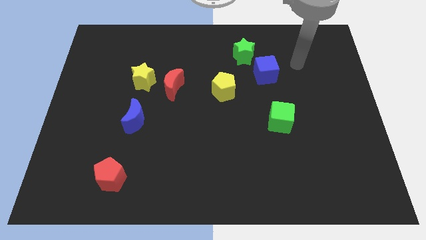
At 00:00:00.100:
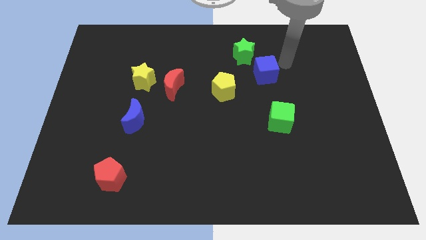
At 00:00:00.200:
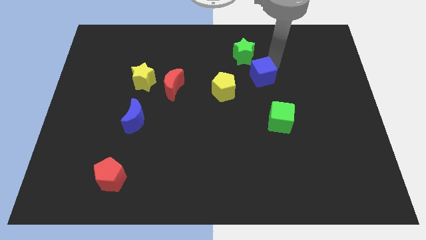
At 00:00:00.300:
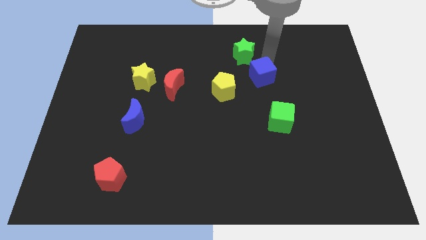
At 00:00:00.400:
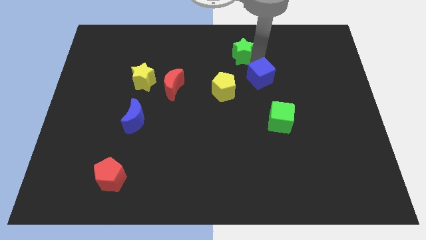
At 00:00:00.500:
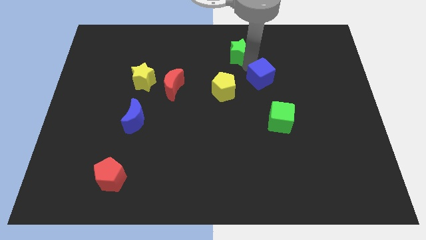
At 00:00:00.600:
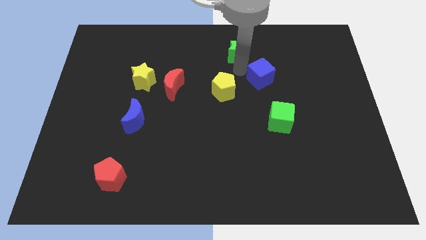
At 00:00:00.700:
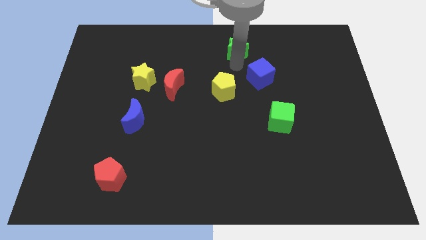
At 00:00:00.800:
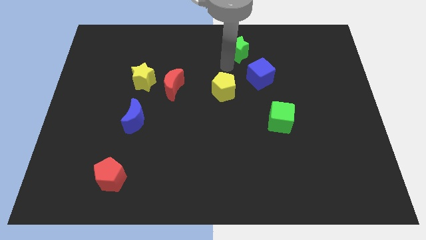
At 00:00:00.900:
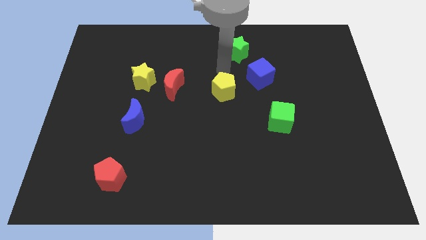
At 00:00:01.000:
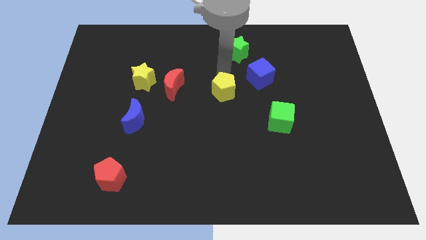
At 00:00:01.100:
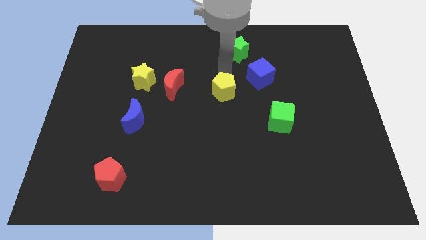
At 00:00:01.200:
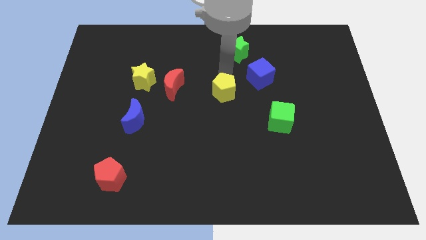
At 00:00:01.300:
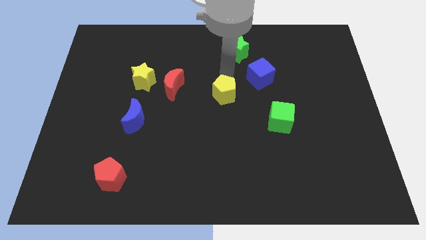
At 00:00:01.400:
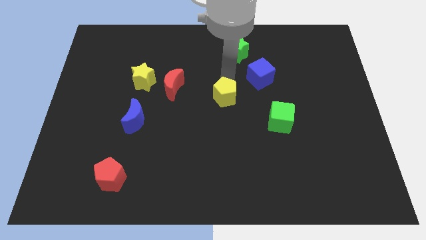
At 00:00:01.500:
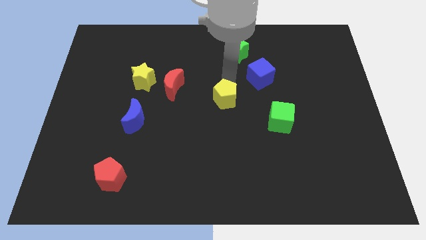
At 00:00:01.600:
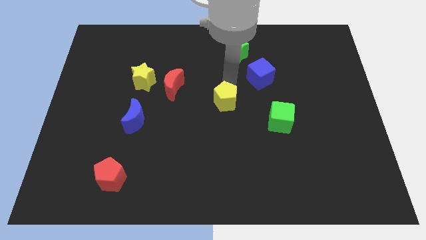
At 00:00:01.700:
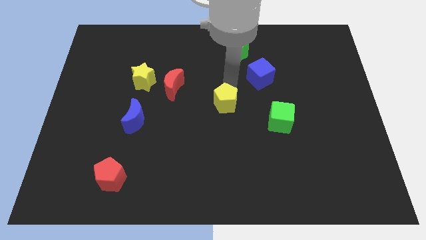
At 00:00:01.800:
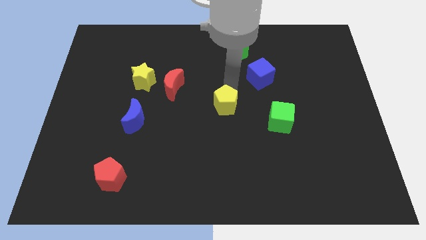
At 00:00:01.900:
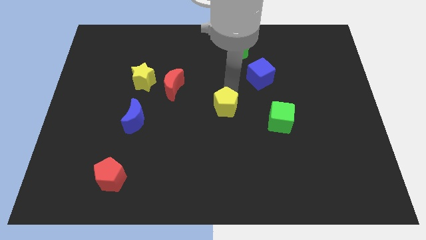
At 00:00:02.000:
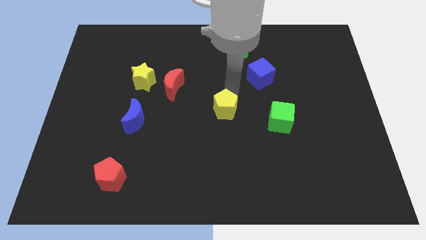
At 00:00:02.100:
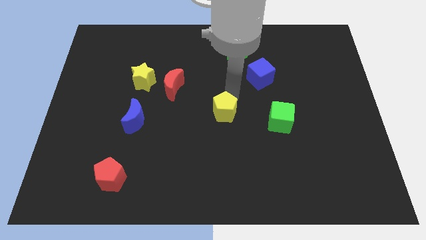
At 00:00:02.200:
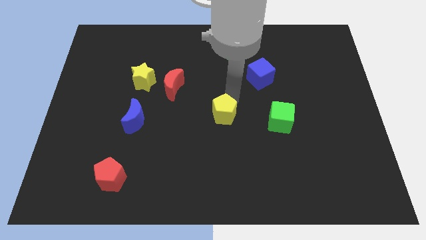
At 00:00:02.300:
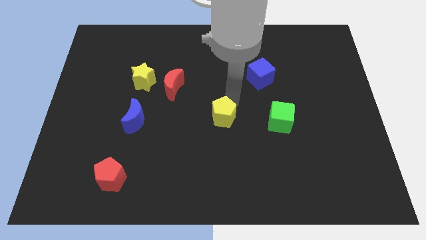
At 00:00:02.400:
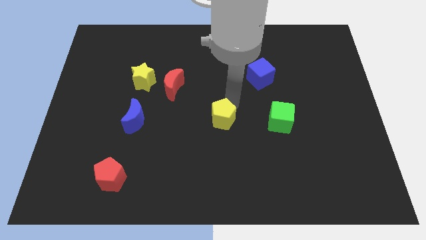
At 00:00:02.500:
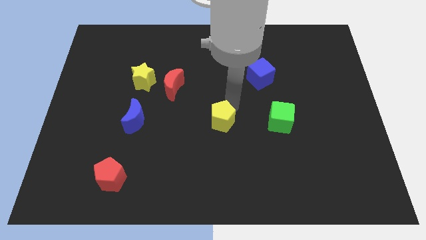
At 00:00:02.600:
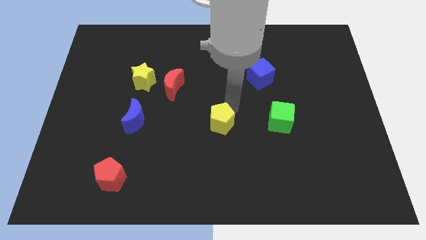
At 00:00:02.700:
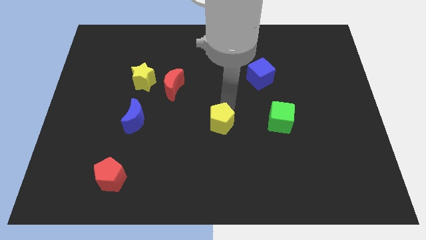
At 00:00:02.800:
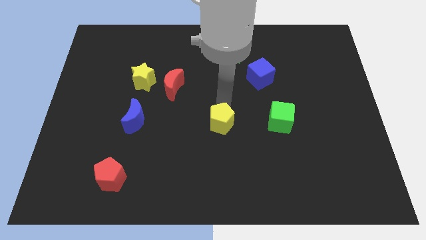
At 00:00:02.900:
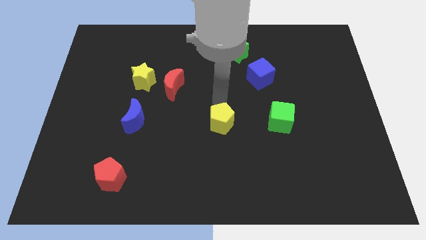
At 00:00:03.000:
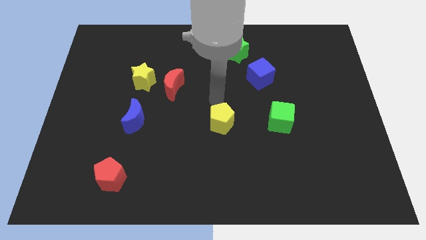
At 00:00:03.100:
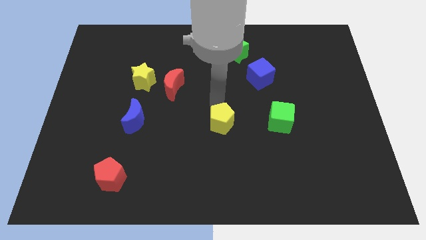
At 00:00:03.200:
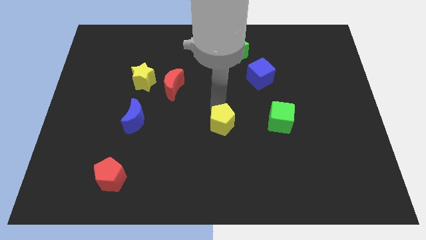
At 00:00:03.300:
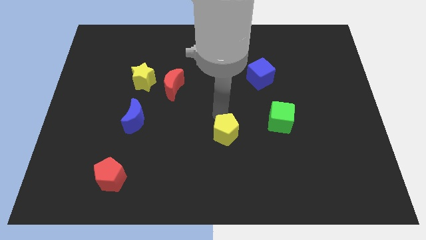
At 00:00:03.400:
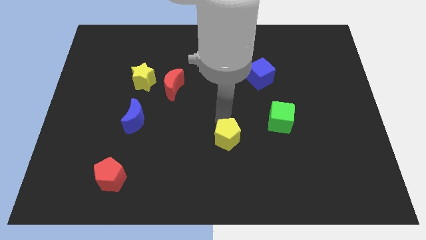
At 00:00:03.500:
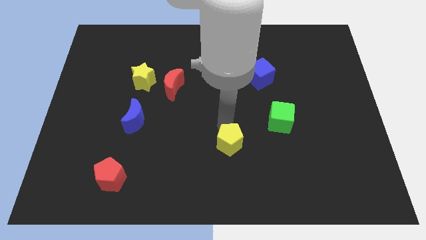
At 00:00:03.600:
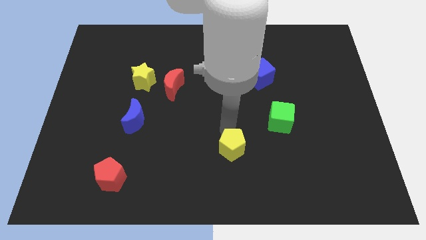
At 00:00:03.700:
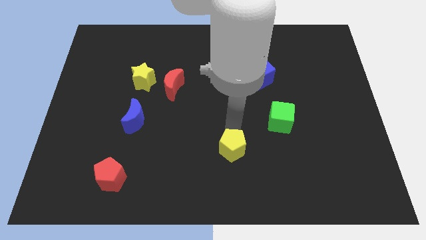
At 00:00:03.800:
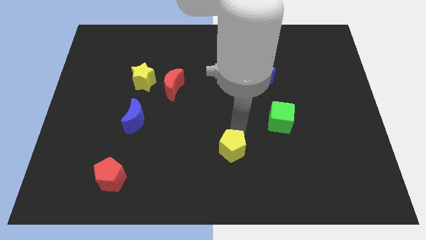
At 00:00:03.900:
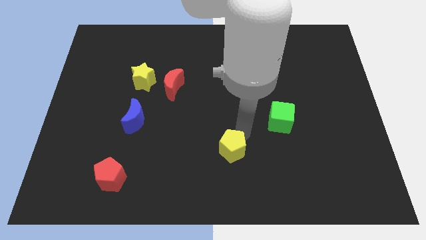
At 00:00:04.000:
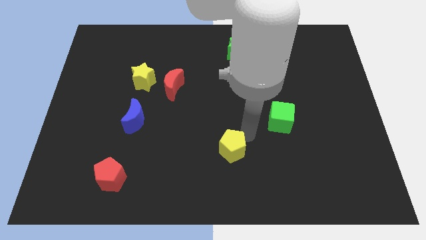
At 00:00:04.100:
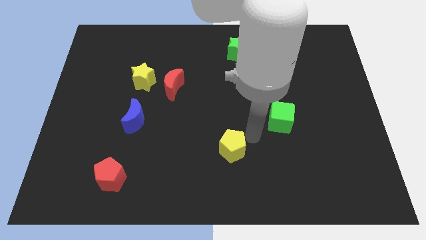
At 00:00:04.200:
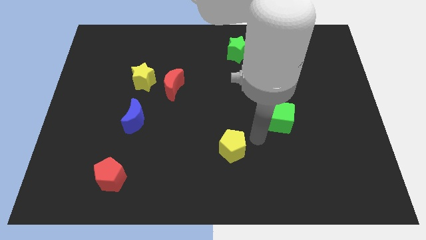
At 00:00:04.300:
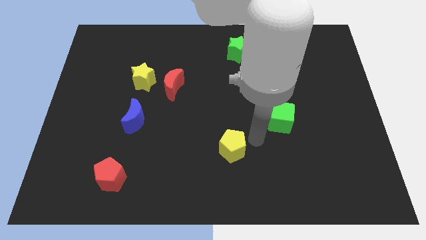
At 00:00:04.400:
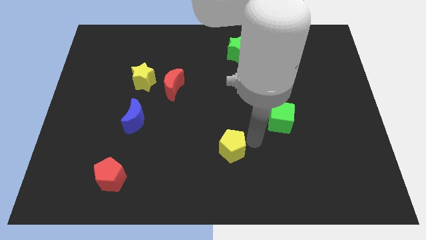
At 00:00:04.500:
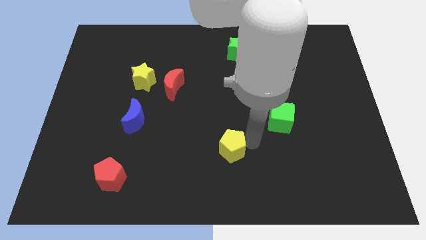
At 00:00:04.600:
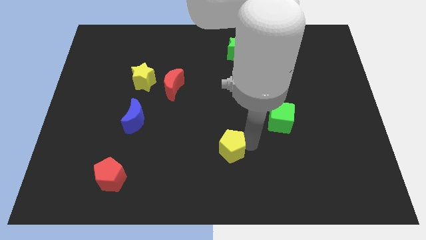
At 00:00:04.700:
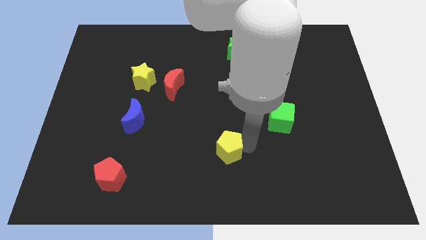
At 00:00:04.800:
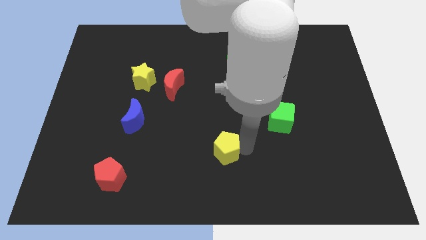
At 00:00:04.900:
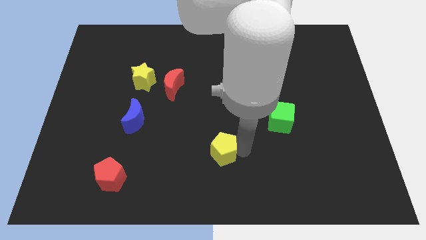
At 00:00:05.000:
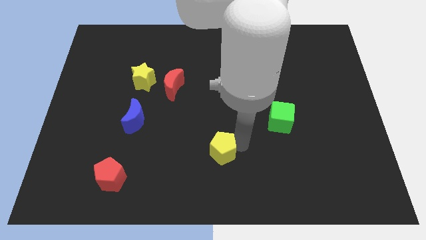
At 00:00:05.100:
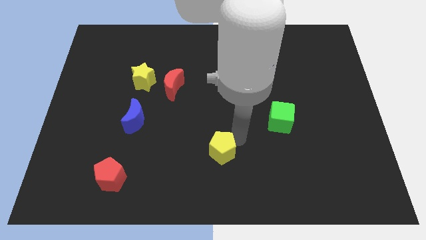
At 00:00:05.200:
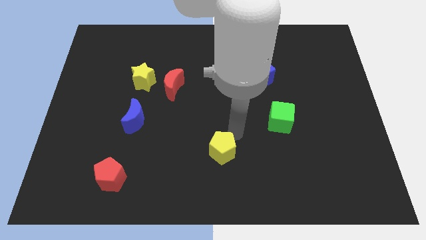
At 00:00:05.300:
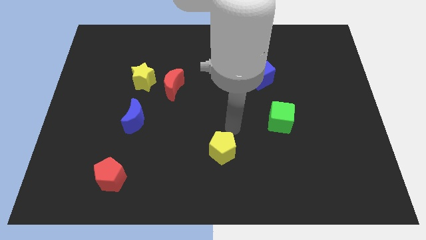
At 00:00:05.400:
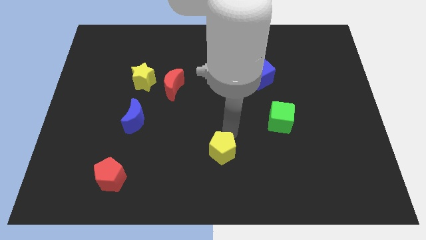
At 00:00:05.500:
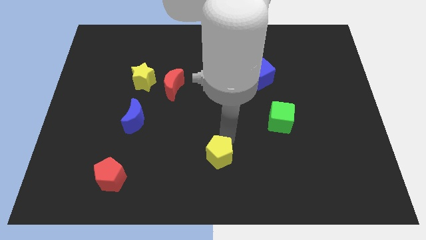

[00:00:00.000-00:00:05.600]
slide the yellow pentagon to the bottom side
